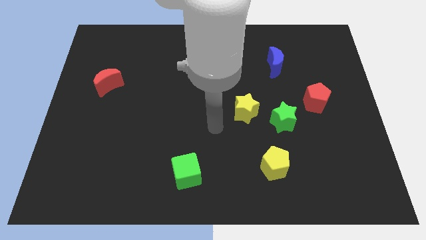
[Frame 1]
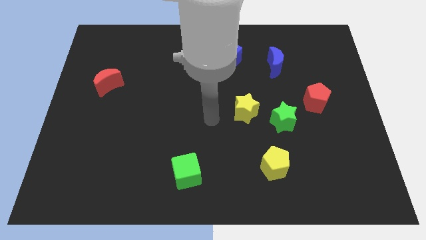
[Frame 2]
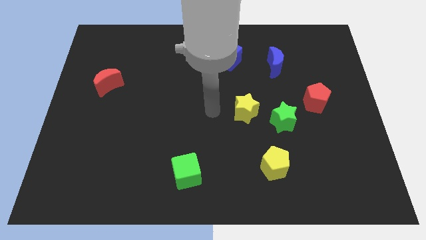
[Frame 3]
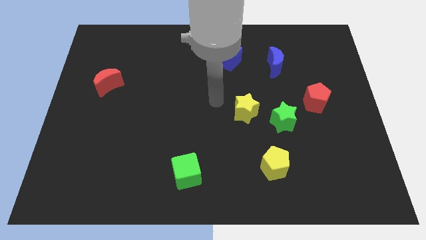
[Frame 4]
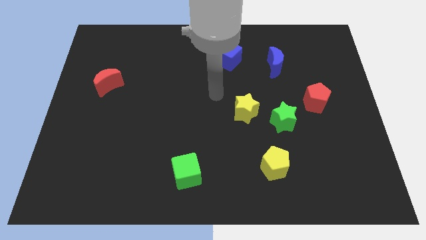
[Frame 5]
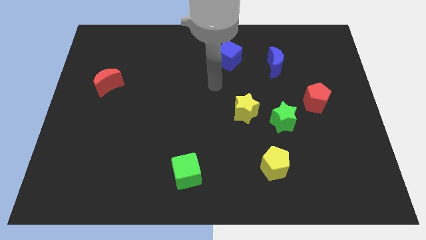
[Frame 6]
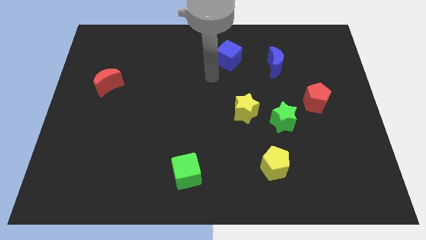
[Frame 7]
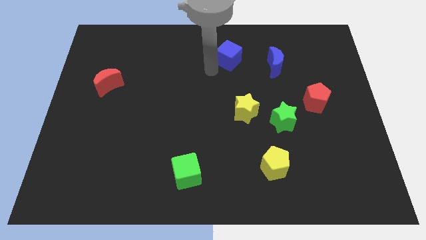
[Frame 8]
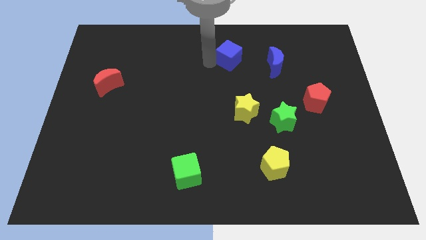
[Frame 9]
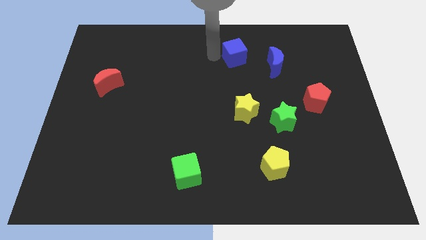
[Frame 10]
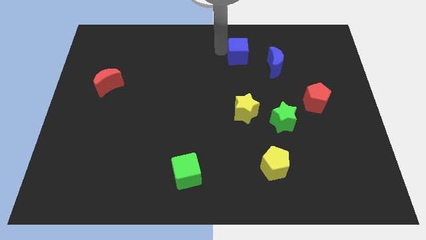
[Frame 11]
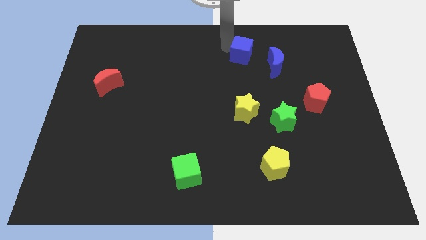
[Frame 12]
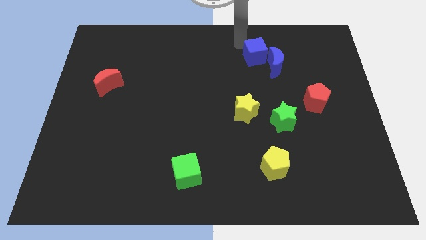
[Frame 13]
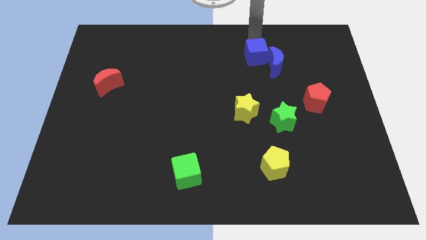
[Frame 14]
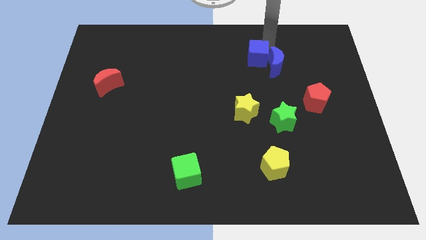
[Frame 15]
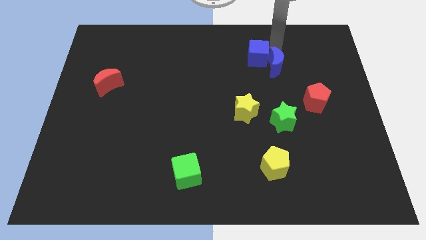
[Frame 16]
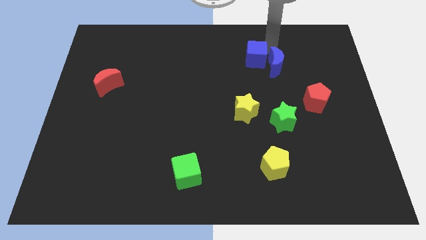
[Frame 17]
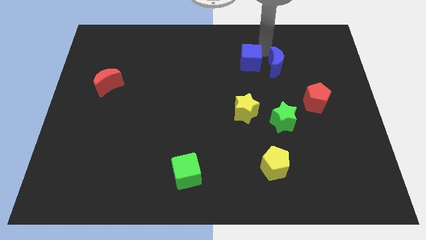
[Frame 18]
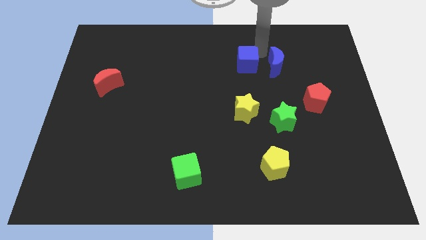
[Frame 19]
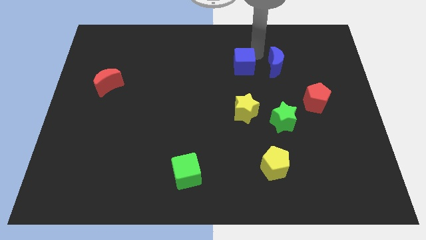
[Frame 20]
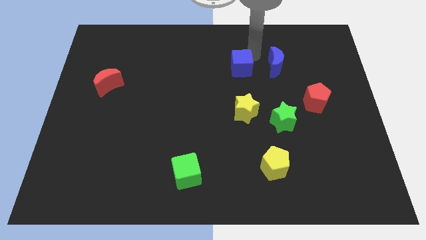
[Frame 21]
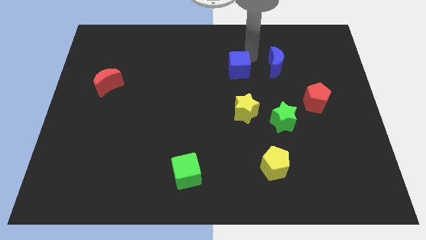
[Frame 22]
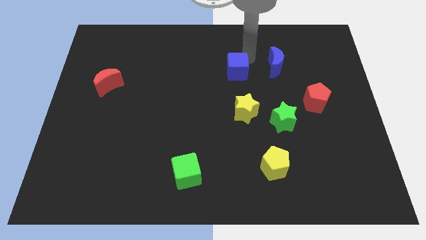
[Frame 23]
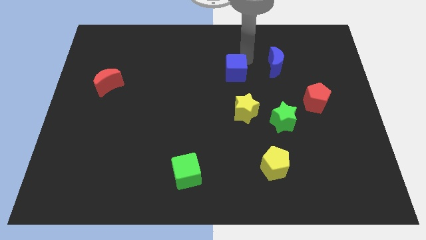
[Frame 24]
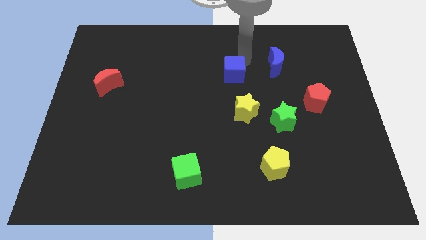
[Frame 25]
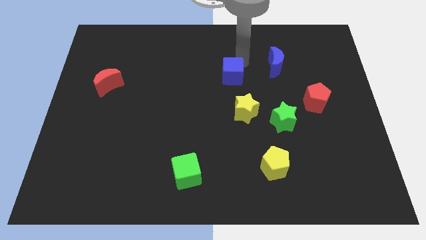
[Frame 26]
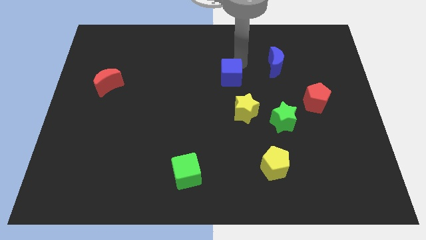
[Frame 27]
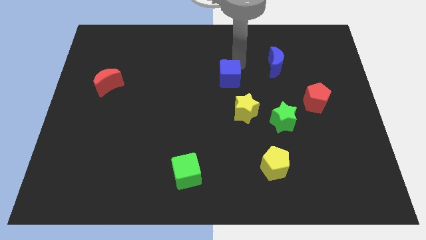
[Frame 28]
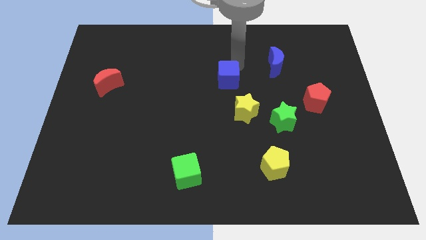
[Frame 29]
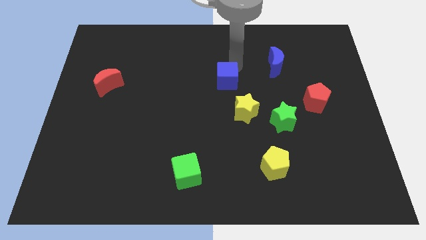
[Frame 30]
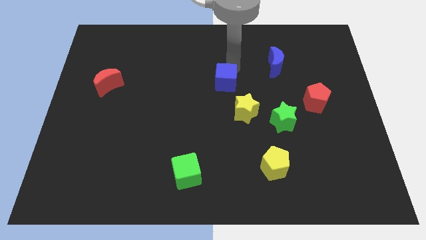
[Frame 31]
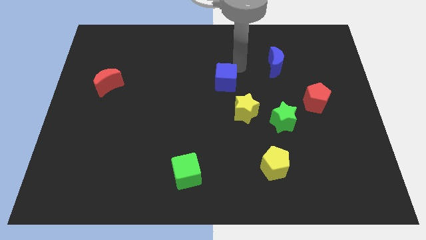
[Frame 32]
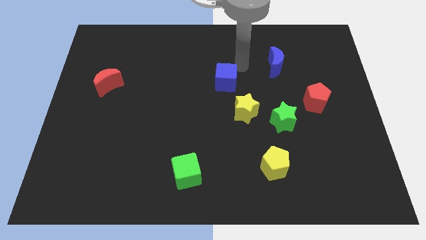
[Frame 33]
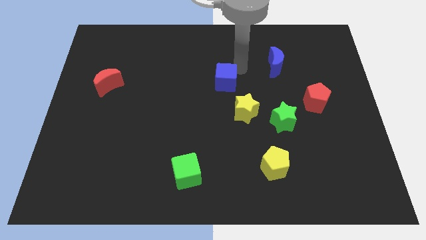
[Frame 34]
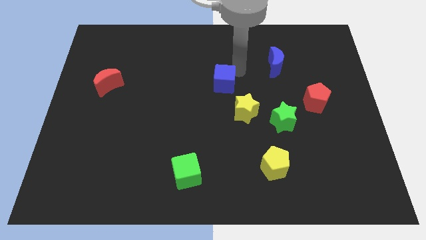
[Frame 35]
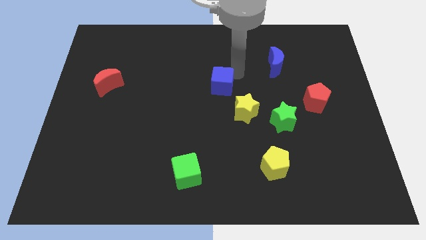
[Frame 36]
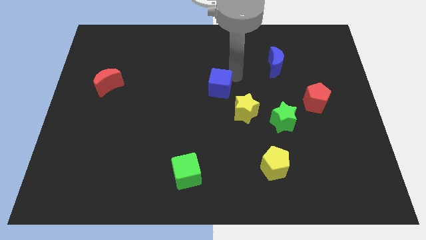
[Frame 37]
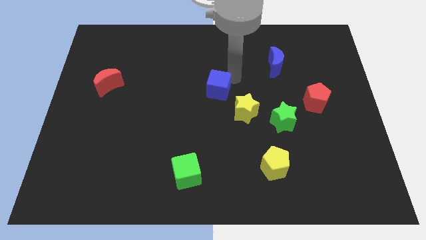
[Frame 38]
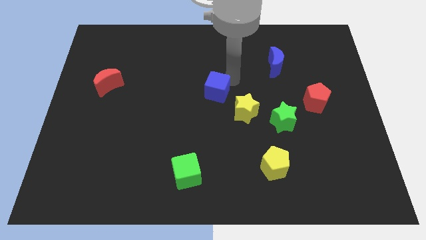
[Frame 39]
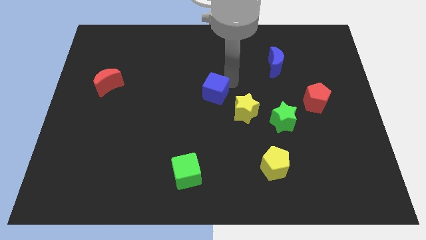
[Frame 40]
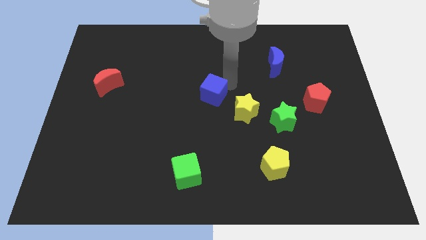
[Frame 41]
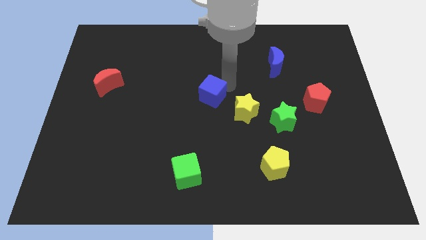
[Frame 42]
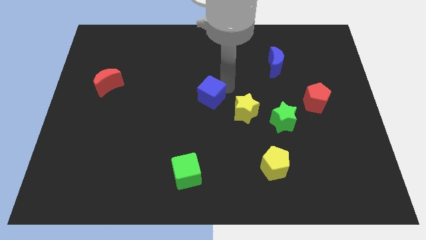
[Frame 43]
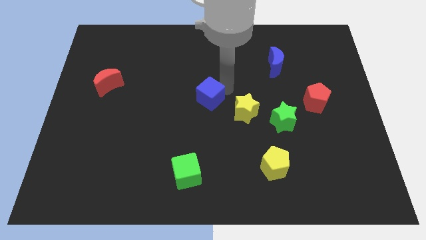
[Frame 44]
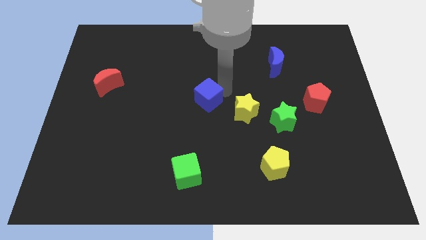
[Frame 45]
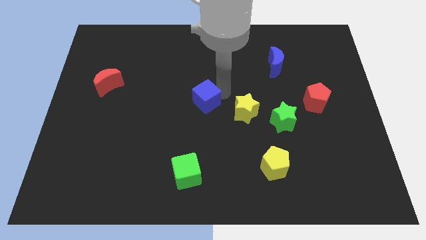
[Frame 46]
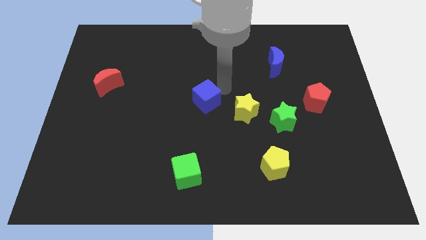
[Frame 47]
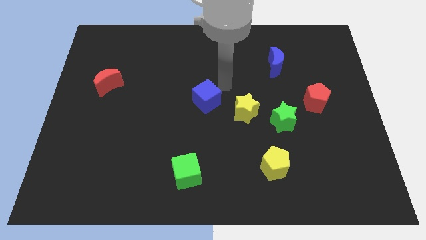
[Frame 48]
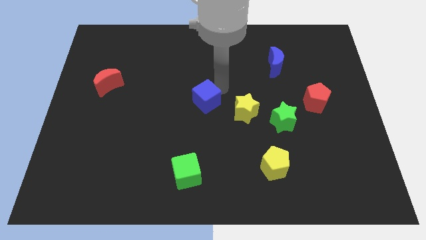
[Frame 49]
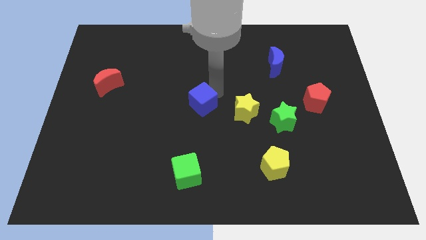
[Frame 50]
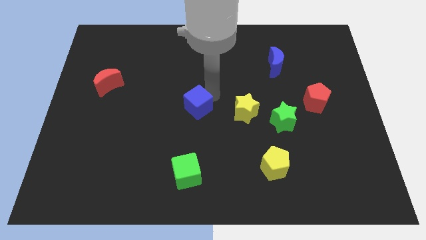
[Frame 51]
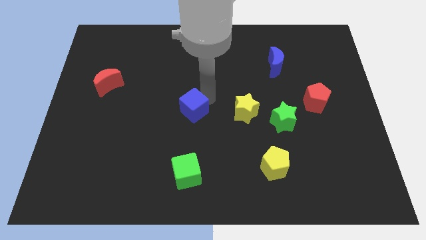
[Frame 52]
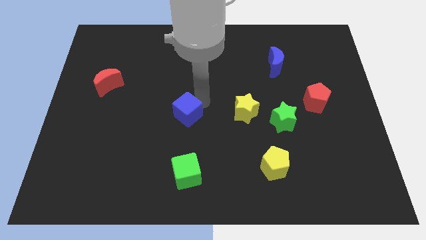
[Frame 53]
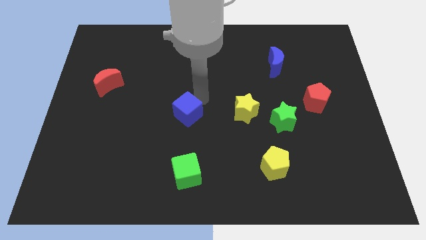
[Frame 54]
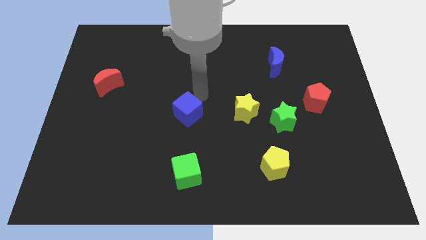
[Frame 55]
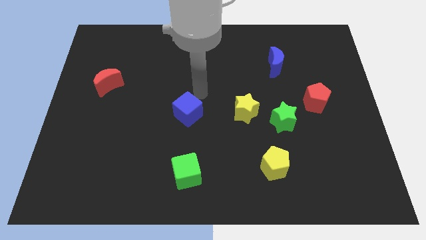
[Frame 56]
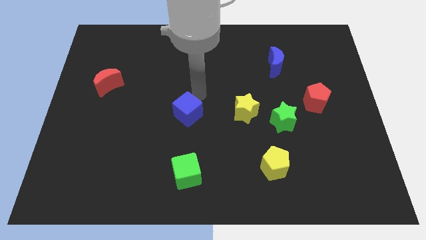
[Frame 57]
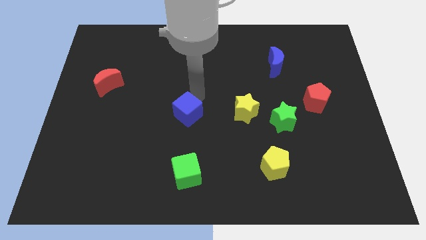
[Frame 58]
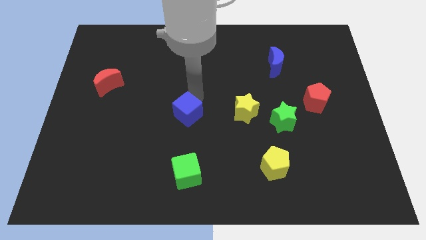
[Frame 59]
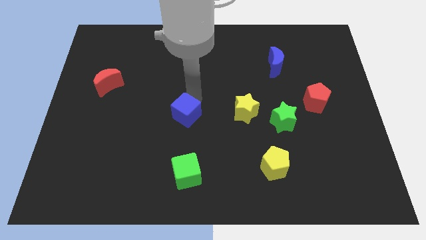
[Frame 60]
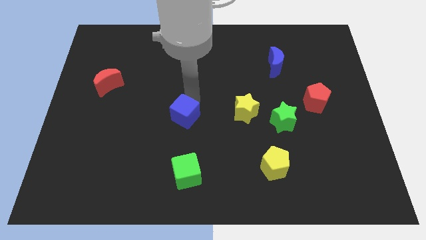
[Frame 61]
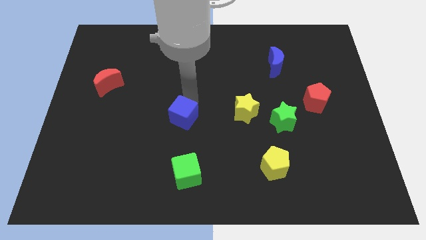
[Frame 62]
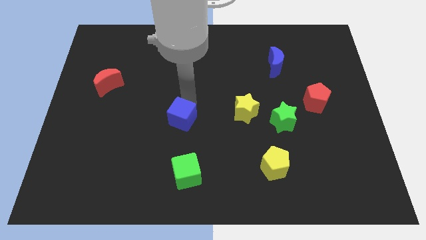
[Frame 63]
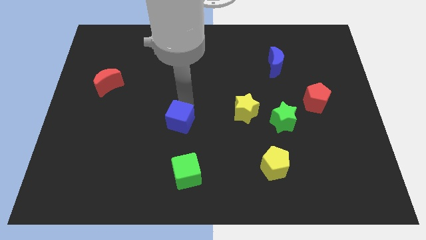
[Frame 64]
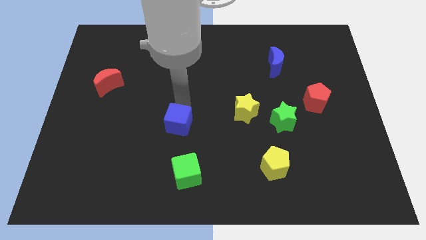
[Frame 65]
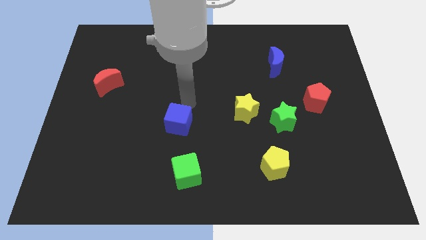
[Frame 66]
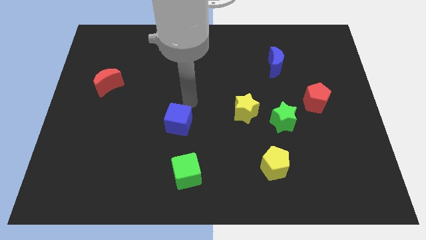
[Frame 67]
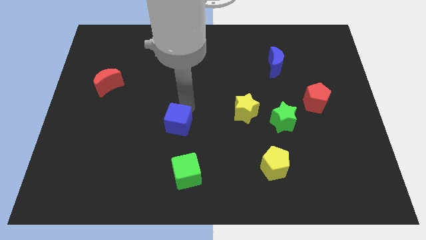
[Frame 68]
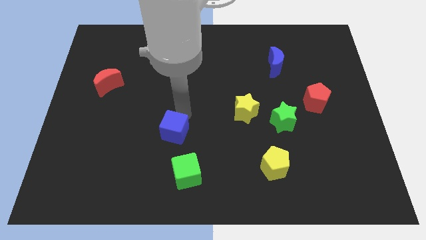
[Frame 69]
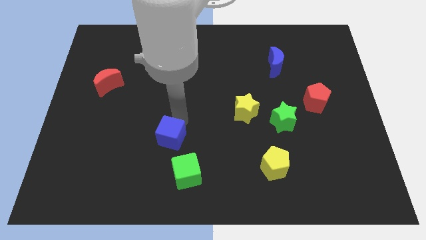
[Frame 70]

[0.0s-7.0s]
slide the blue cube diagonally up and to the left of the green cube
